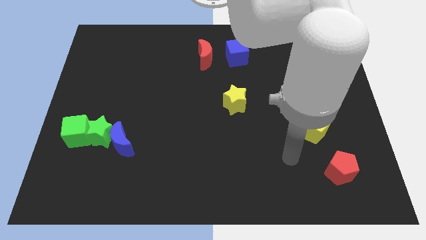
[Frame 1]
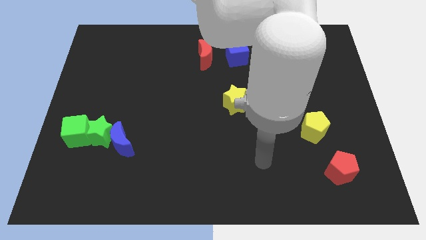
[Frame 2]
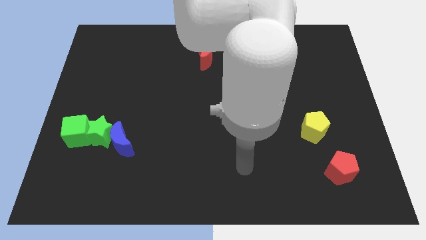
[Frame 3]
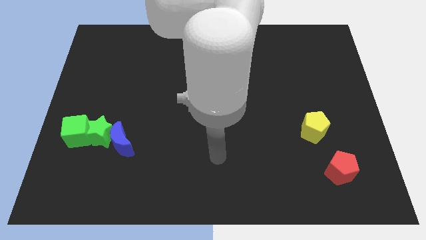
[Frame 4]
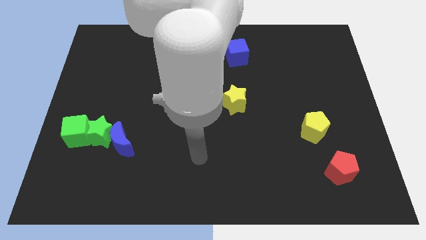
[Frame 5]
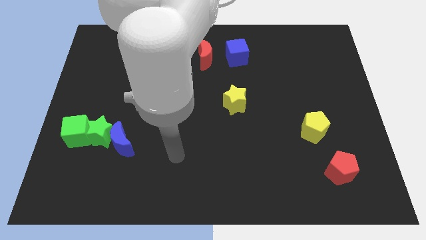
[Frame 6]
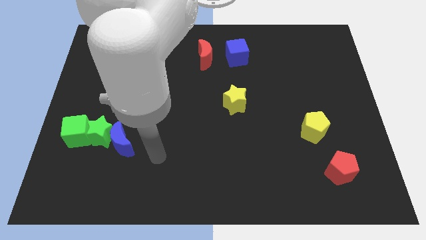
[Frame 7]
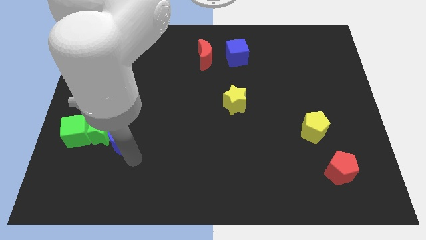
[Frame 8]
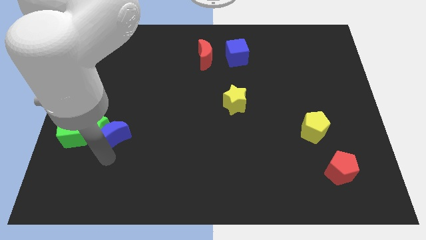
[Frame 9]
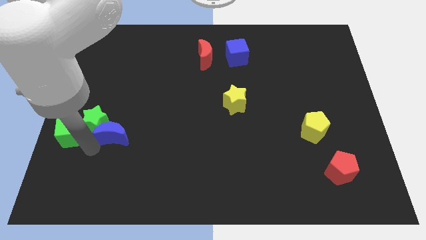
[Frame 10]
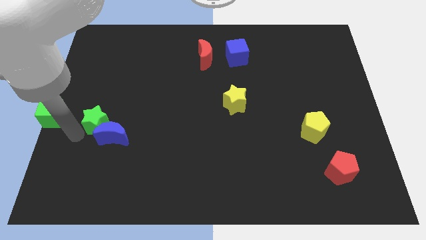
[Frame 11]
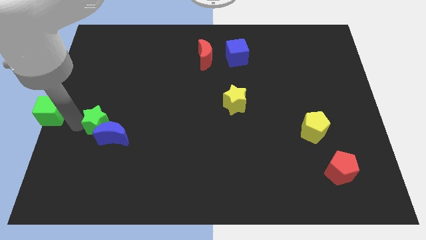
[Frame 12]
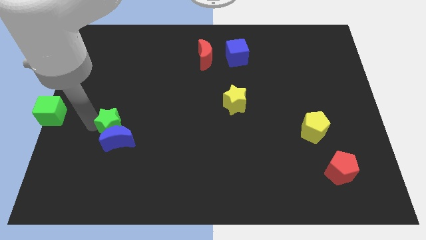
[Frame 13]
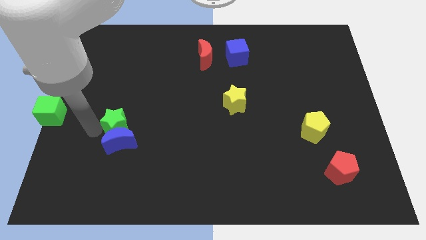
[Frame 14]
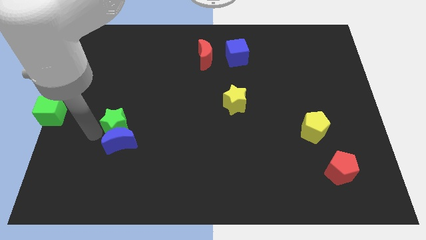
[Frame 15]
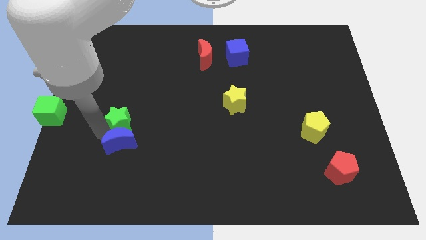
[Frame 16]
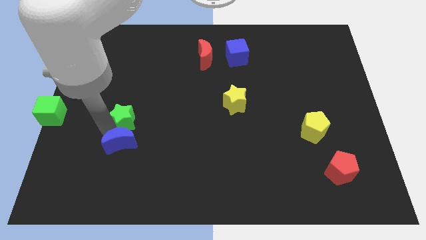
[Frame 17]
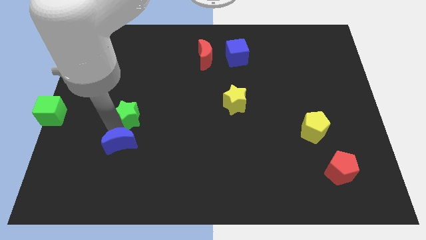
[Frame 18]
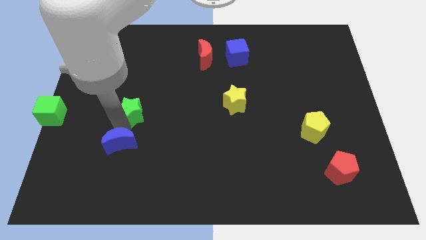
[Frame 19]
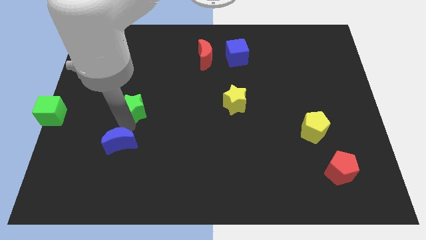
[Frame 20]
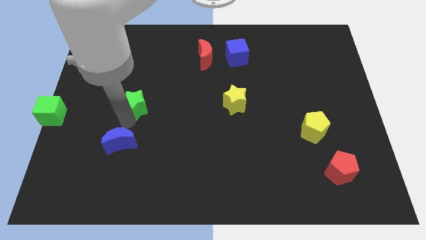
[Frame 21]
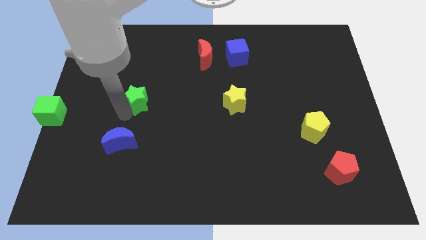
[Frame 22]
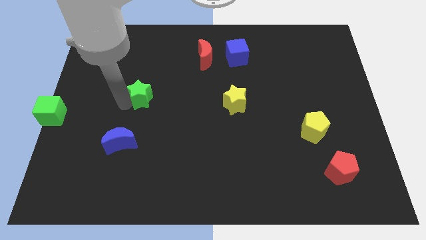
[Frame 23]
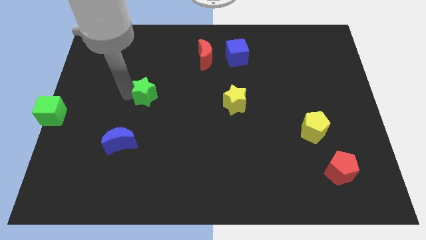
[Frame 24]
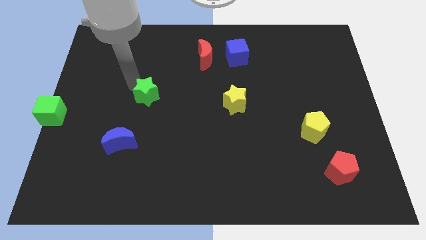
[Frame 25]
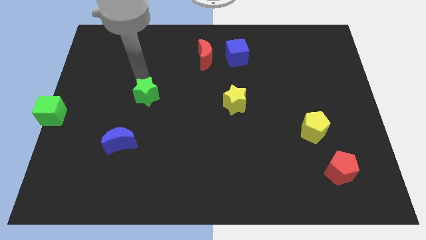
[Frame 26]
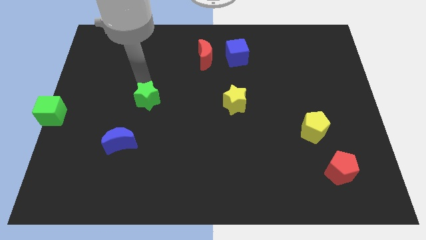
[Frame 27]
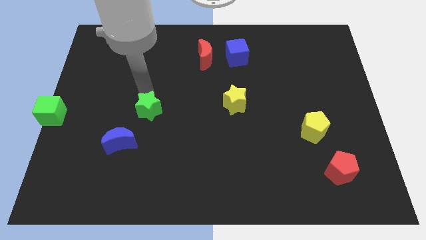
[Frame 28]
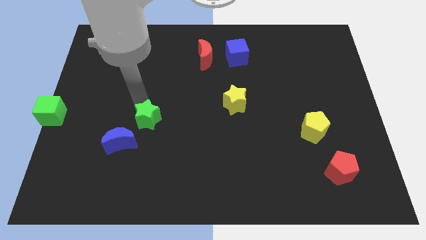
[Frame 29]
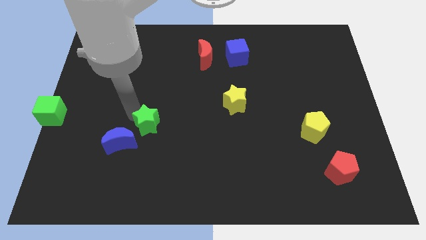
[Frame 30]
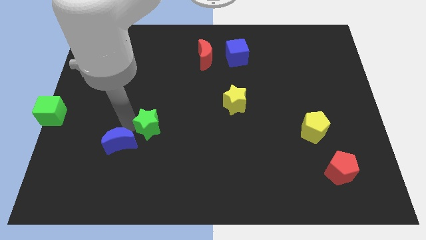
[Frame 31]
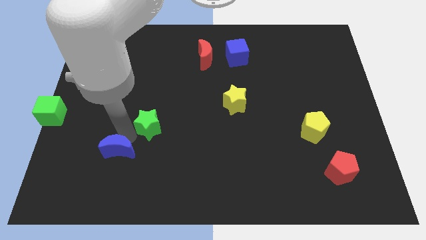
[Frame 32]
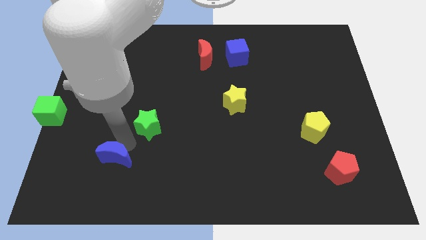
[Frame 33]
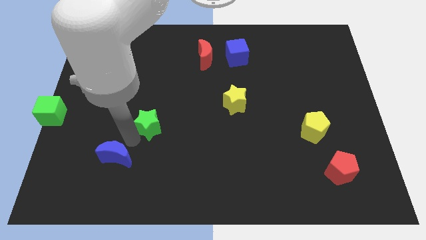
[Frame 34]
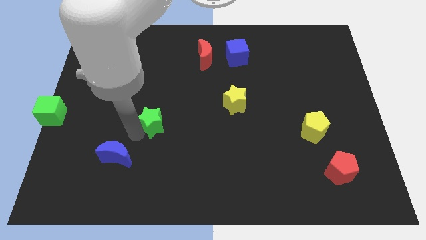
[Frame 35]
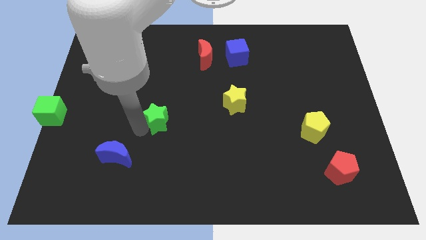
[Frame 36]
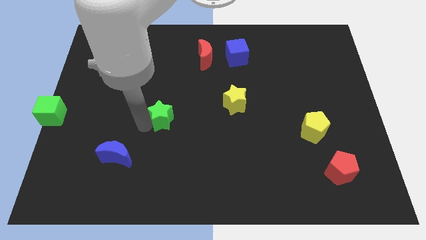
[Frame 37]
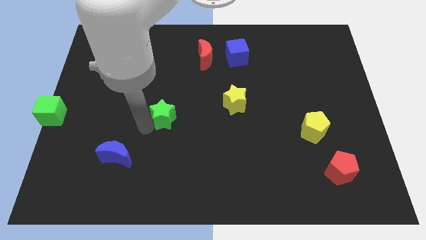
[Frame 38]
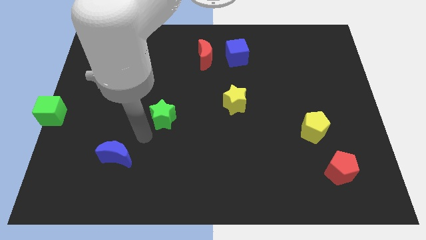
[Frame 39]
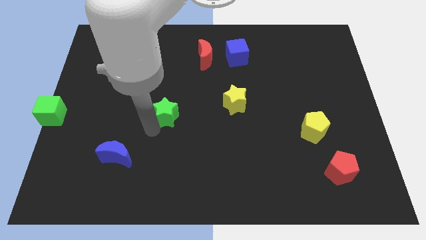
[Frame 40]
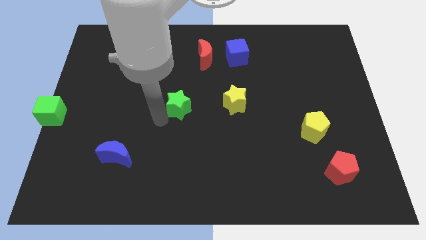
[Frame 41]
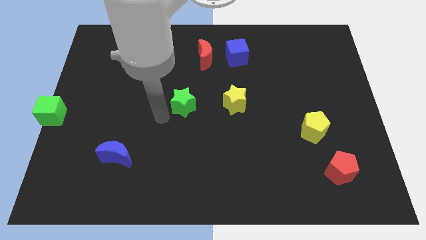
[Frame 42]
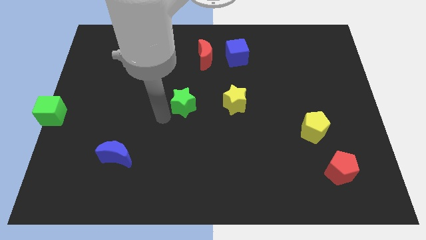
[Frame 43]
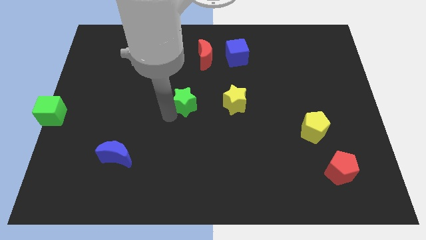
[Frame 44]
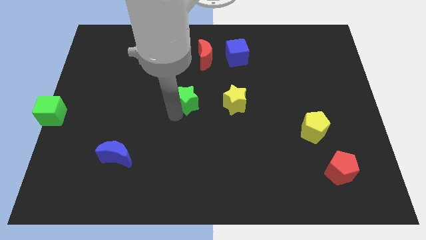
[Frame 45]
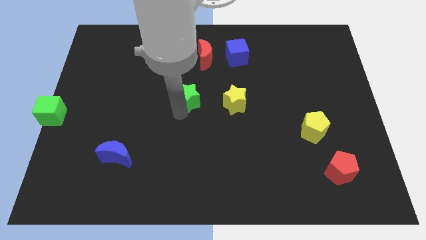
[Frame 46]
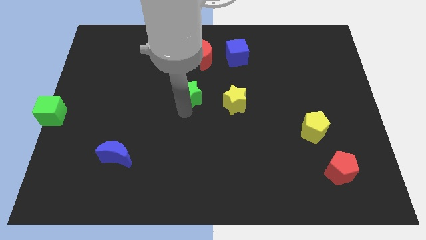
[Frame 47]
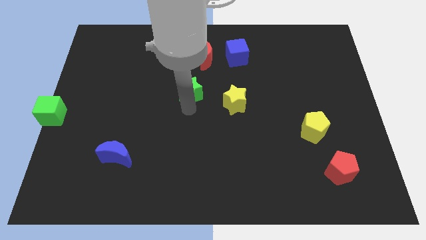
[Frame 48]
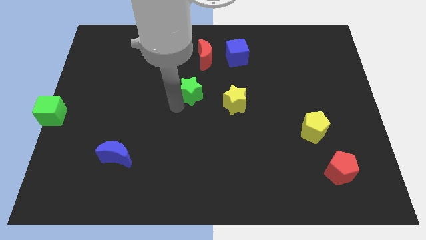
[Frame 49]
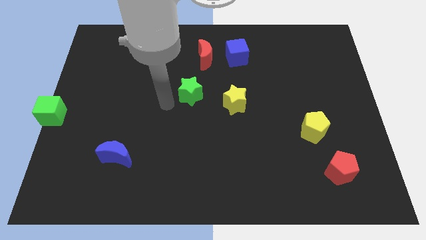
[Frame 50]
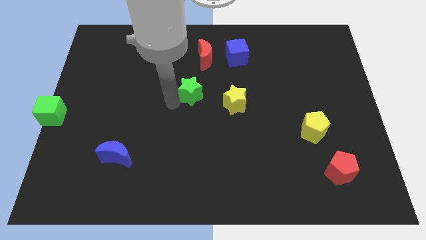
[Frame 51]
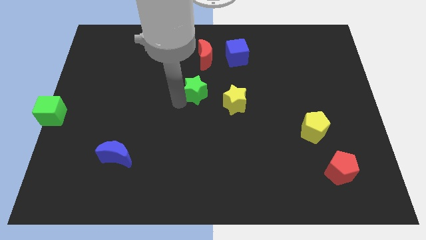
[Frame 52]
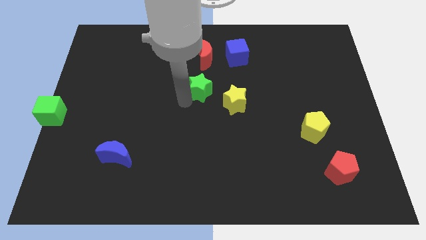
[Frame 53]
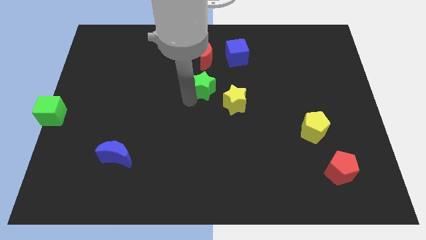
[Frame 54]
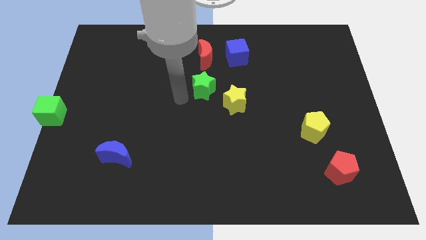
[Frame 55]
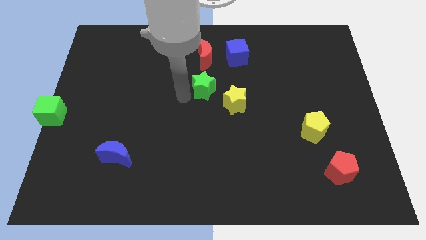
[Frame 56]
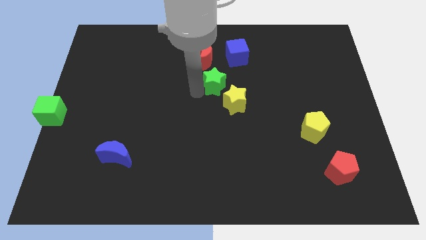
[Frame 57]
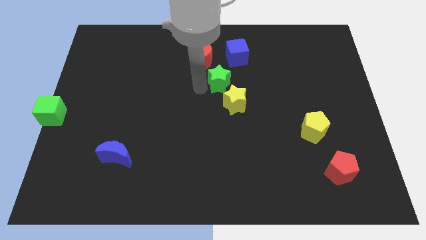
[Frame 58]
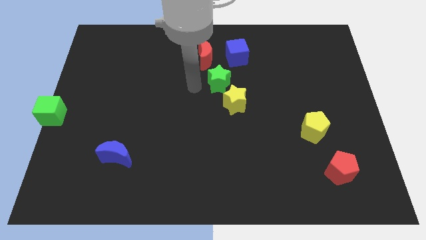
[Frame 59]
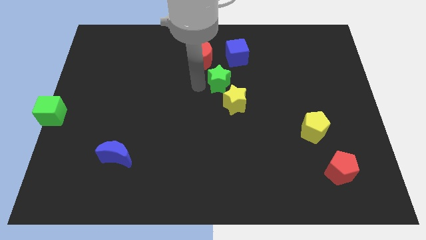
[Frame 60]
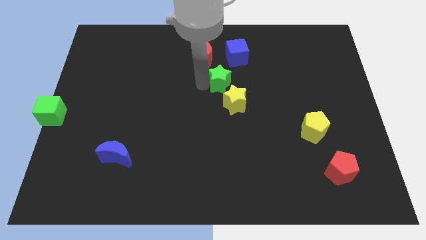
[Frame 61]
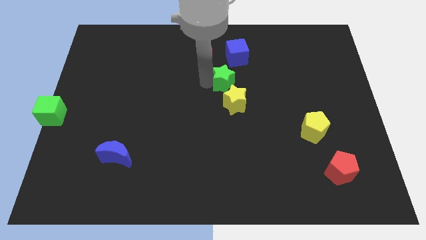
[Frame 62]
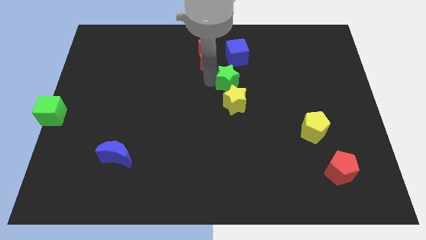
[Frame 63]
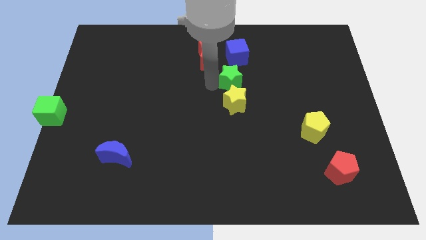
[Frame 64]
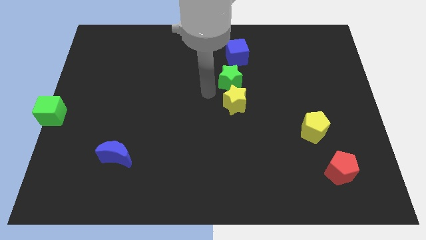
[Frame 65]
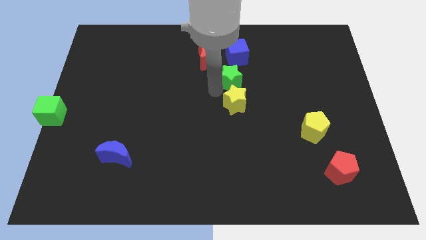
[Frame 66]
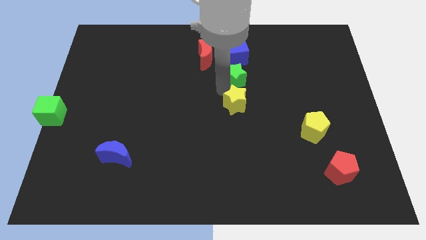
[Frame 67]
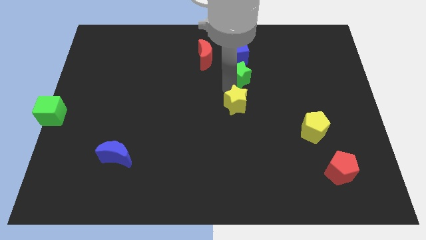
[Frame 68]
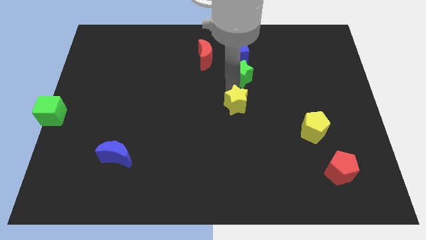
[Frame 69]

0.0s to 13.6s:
move the green star diagonally down and to the right of the blue cube
